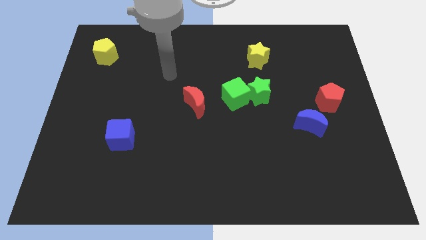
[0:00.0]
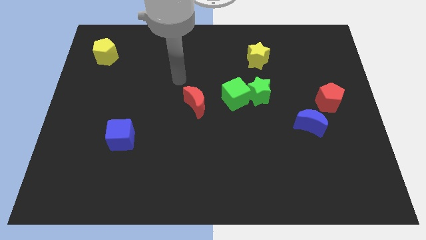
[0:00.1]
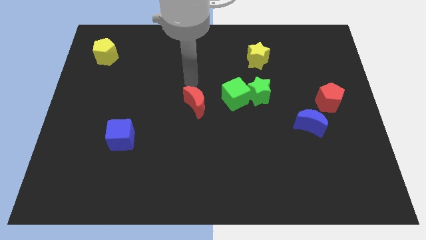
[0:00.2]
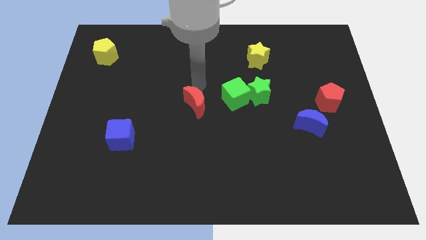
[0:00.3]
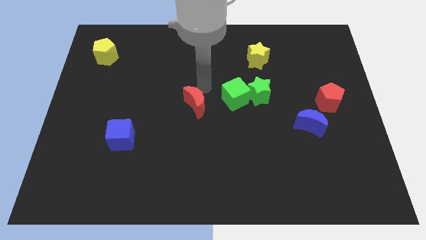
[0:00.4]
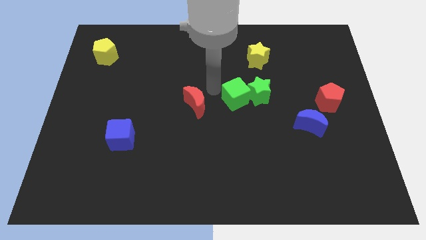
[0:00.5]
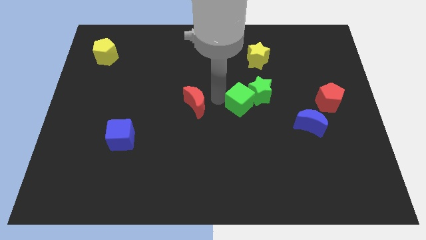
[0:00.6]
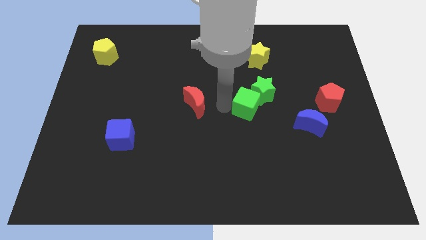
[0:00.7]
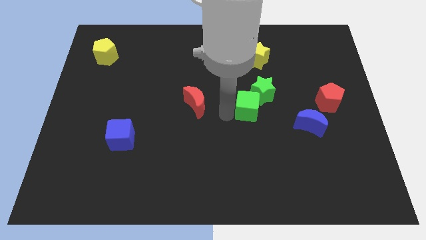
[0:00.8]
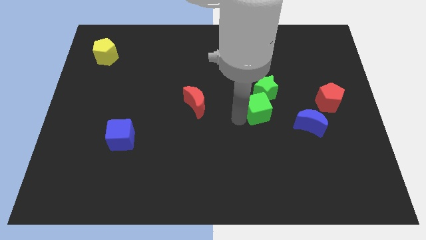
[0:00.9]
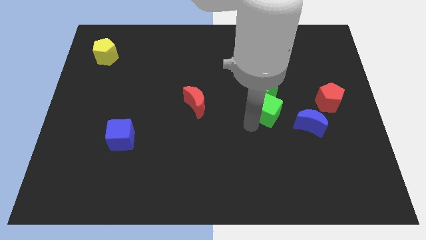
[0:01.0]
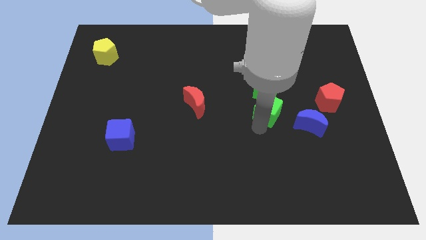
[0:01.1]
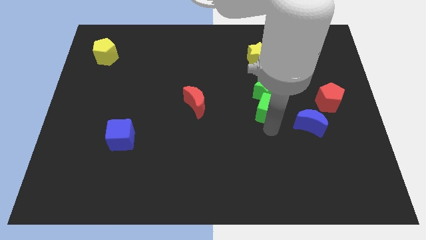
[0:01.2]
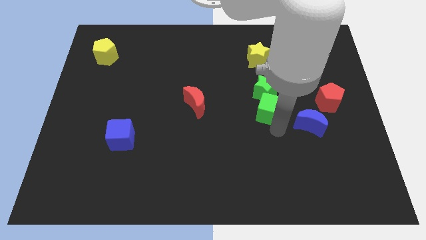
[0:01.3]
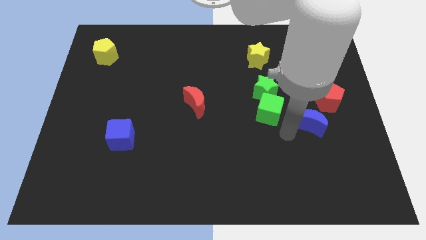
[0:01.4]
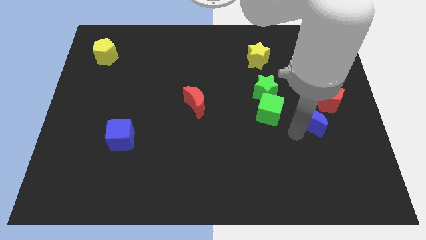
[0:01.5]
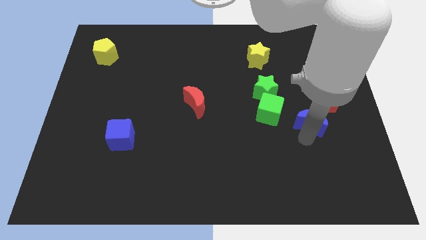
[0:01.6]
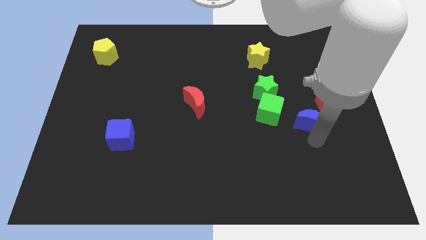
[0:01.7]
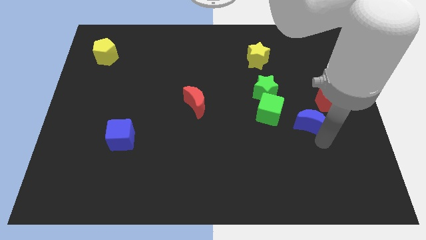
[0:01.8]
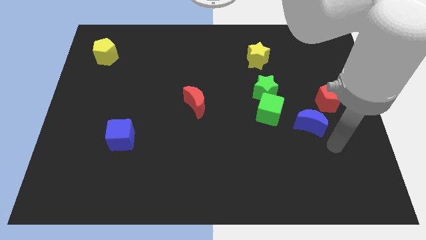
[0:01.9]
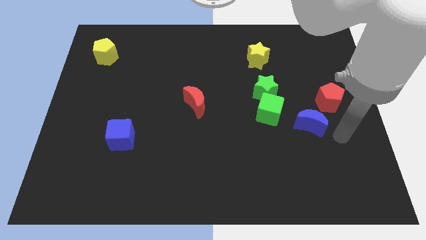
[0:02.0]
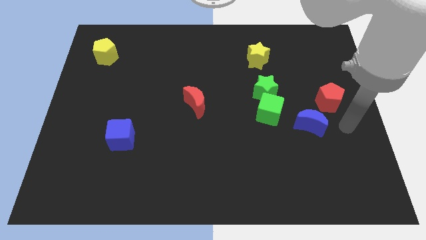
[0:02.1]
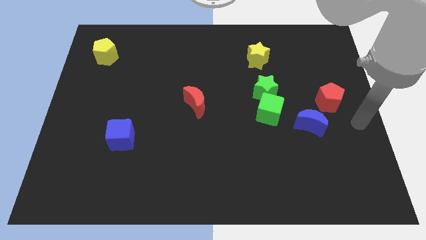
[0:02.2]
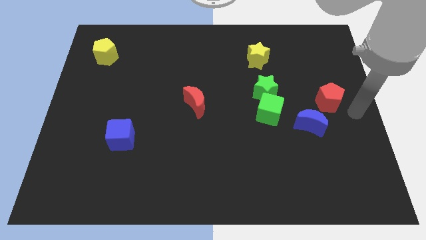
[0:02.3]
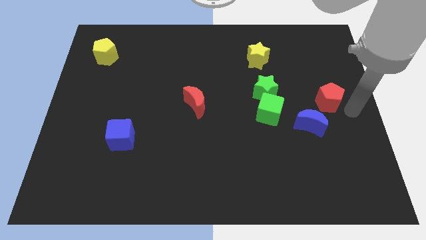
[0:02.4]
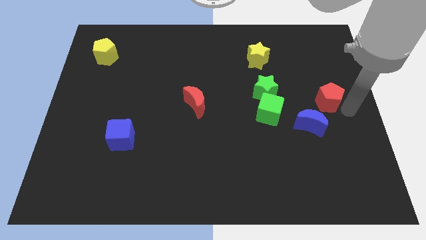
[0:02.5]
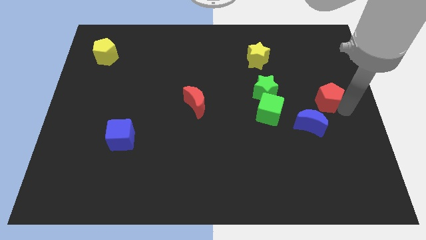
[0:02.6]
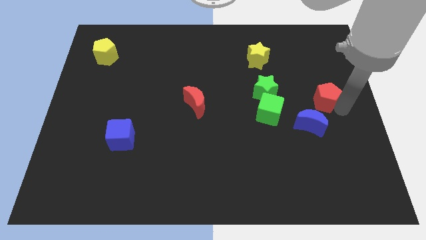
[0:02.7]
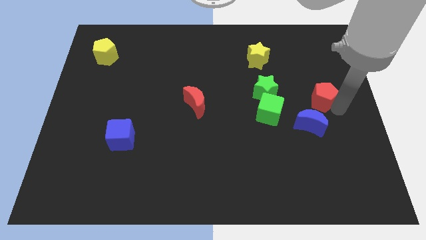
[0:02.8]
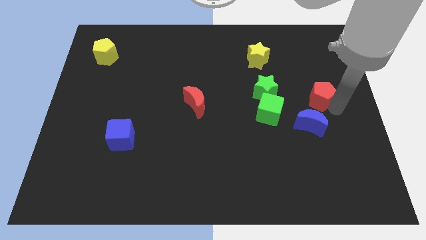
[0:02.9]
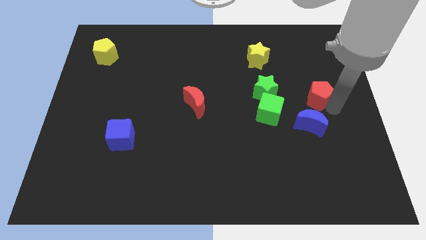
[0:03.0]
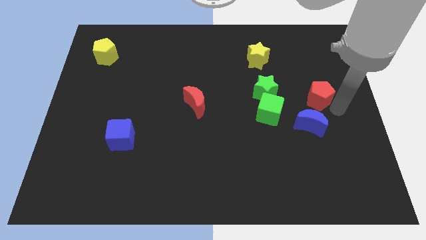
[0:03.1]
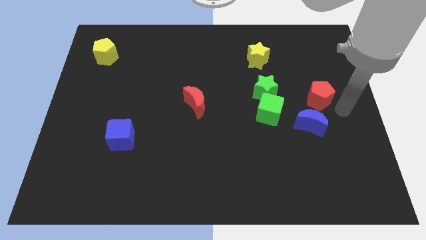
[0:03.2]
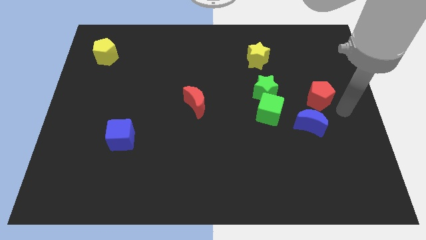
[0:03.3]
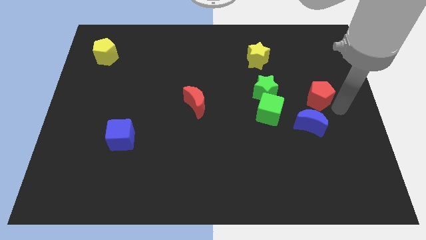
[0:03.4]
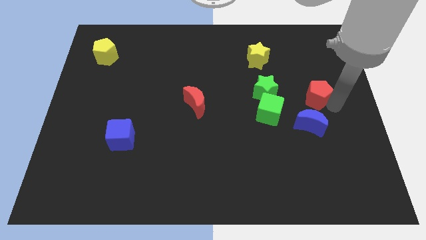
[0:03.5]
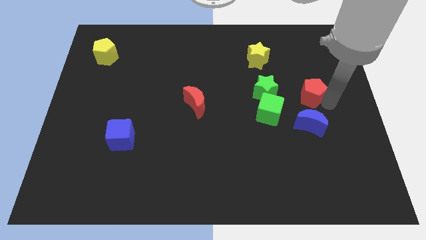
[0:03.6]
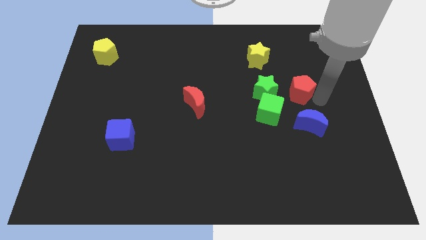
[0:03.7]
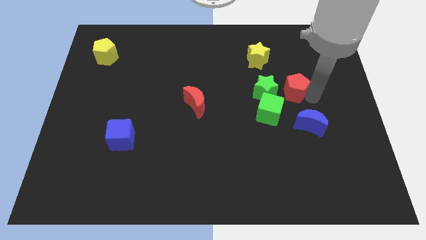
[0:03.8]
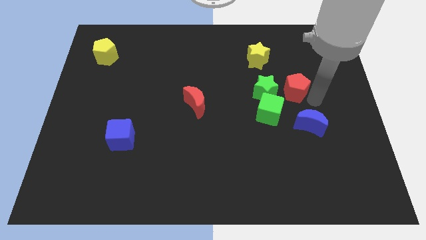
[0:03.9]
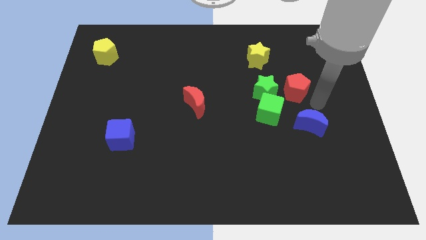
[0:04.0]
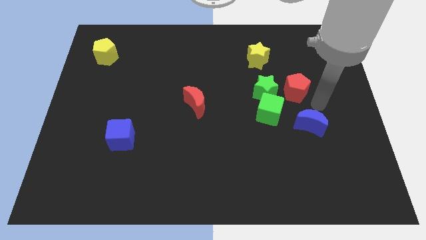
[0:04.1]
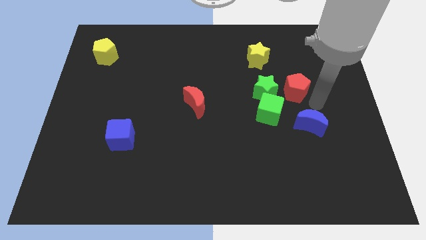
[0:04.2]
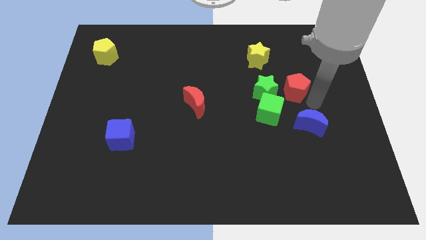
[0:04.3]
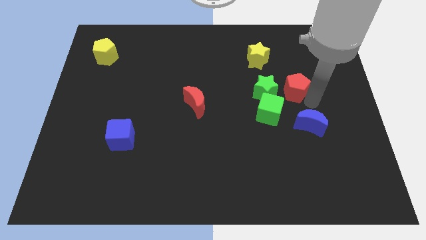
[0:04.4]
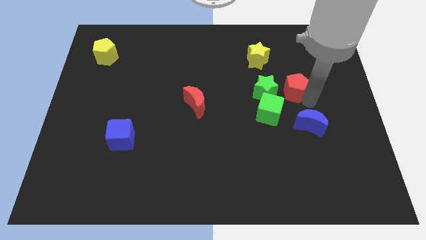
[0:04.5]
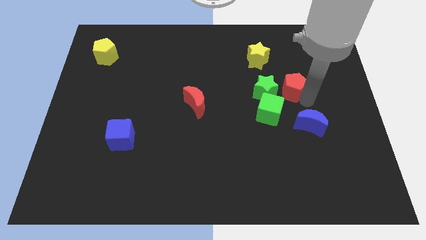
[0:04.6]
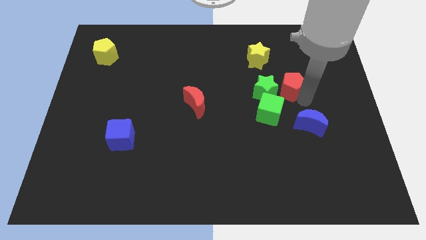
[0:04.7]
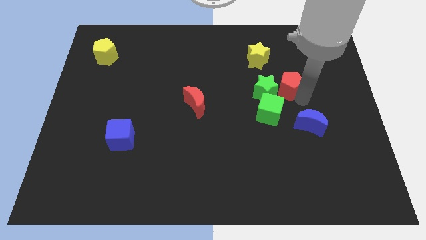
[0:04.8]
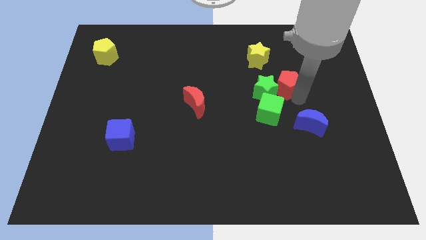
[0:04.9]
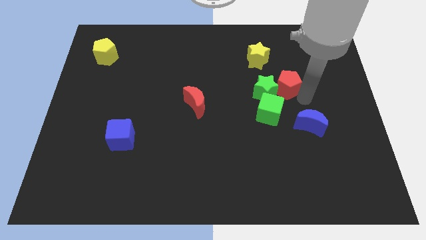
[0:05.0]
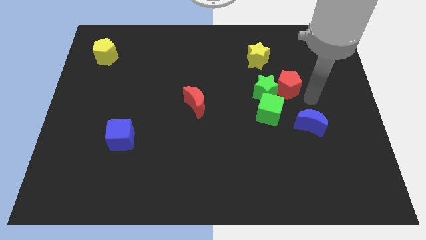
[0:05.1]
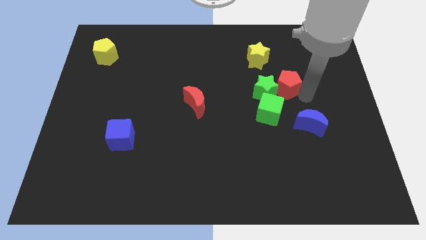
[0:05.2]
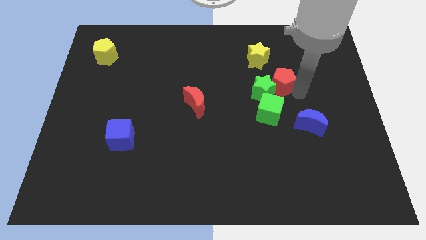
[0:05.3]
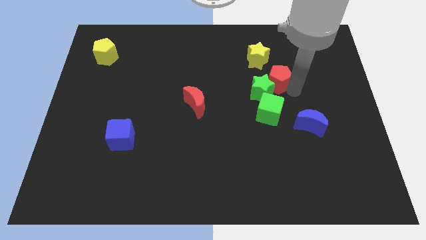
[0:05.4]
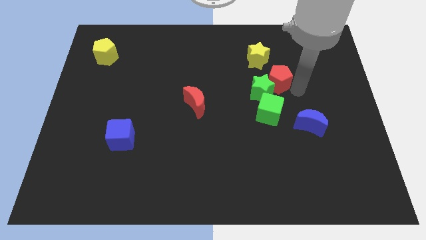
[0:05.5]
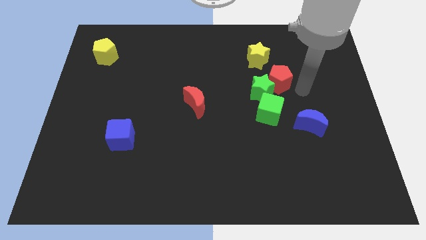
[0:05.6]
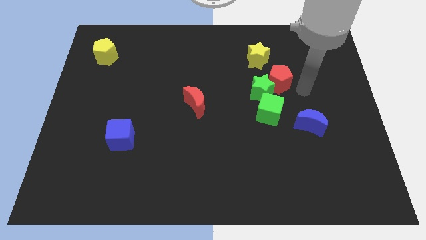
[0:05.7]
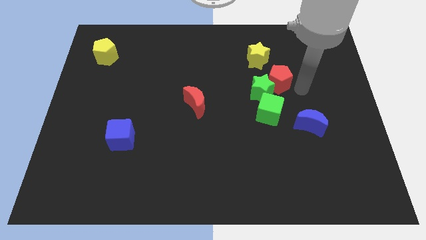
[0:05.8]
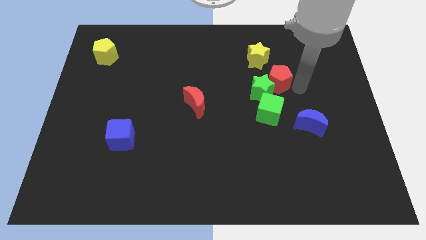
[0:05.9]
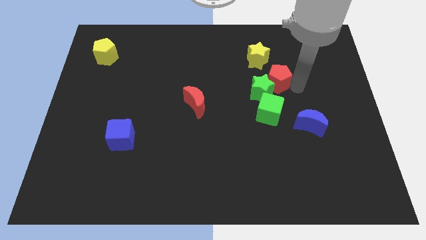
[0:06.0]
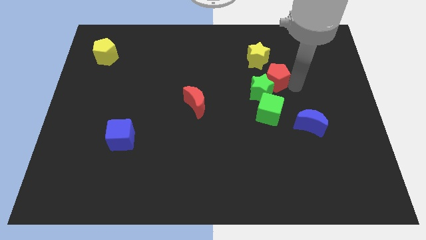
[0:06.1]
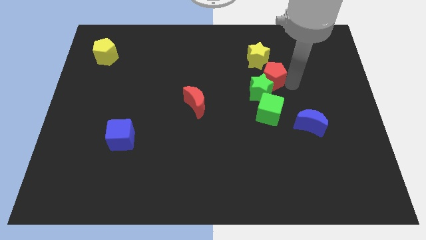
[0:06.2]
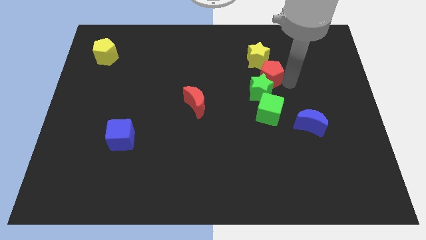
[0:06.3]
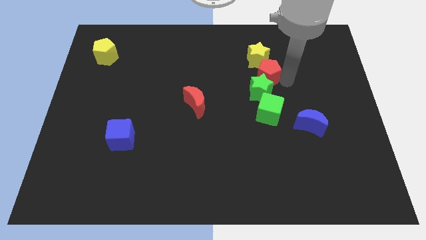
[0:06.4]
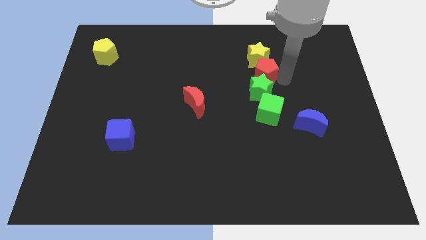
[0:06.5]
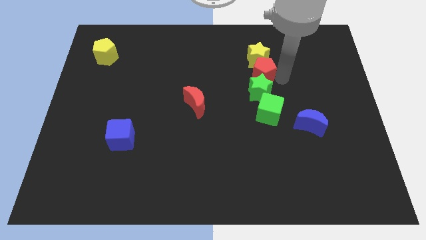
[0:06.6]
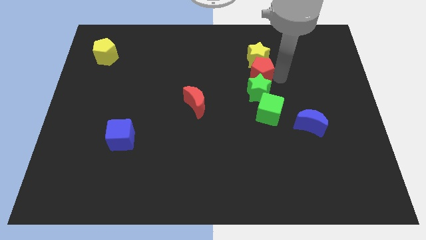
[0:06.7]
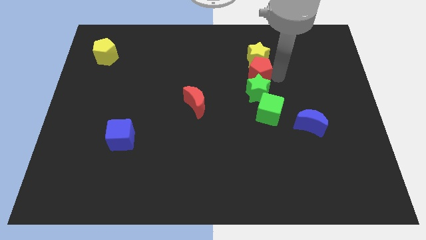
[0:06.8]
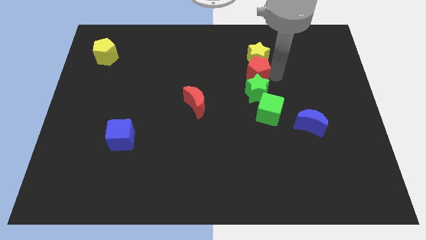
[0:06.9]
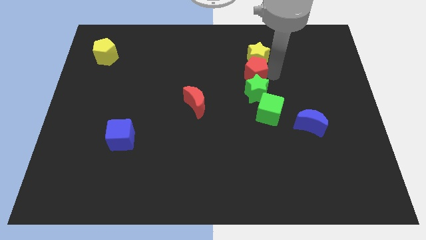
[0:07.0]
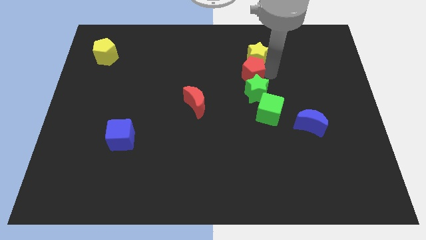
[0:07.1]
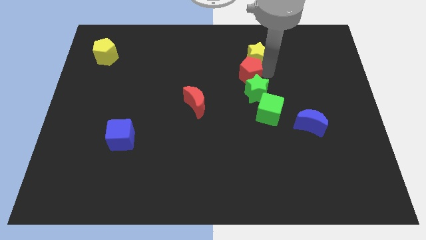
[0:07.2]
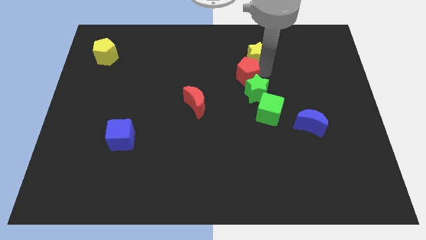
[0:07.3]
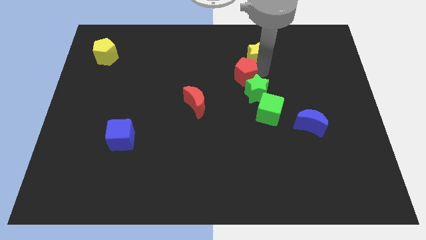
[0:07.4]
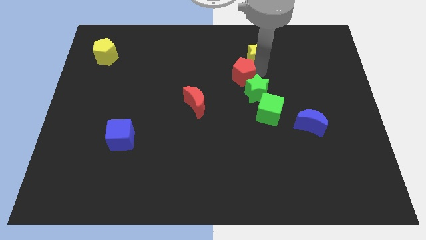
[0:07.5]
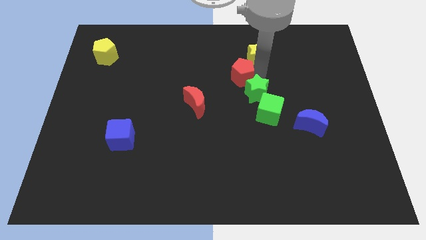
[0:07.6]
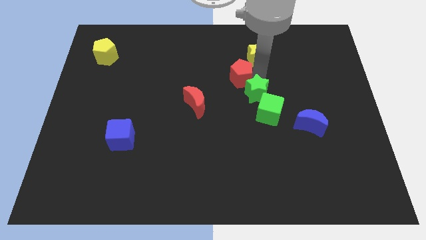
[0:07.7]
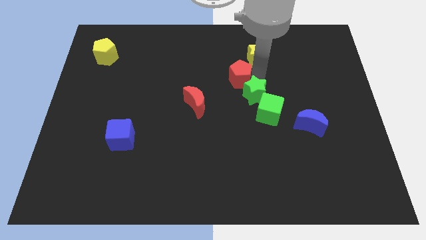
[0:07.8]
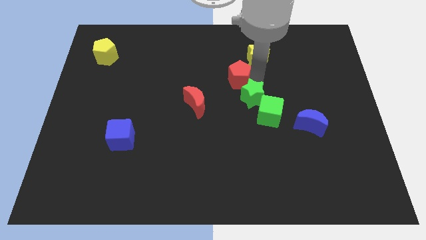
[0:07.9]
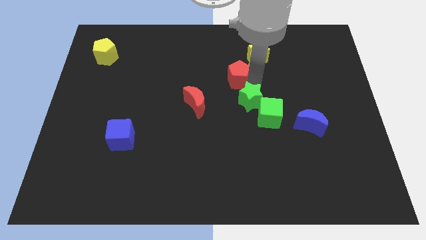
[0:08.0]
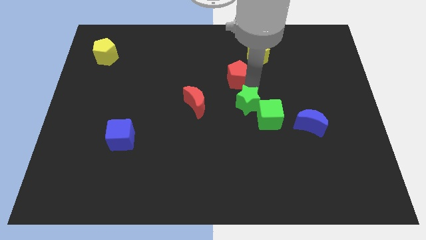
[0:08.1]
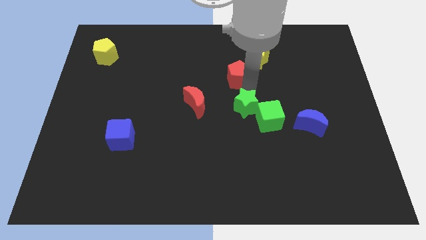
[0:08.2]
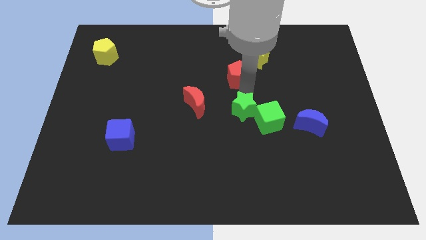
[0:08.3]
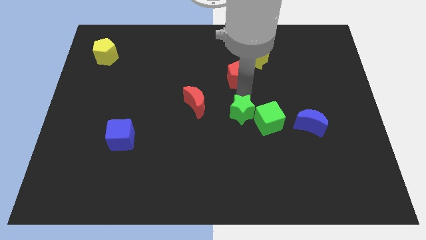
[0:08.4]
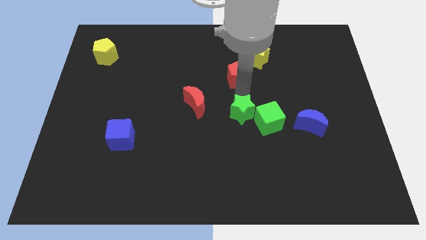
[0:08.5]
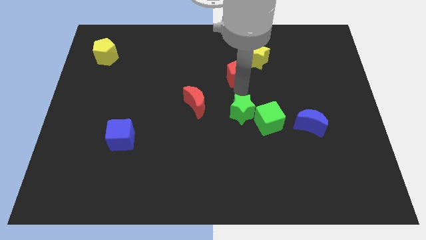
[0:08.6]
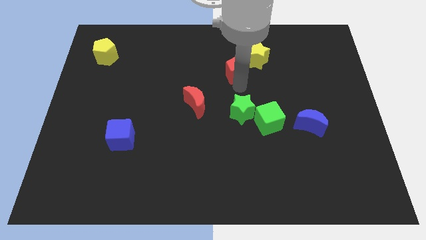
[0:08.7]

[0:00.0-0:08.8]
move the red pentagon left of the yellow star
